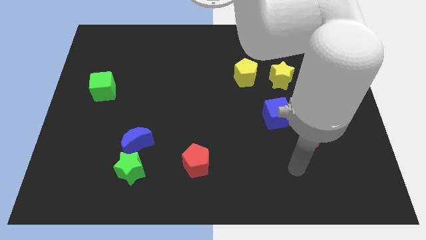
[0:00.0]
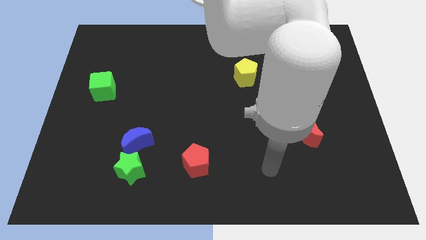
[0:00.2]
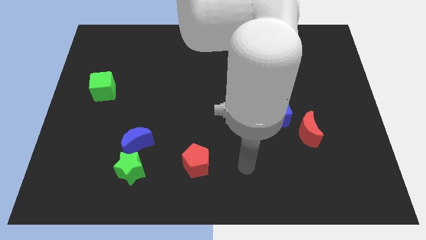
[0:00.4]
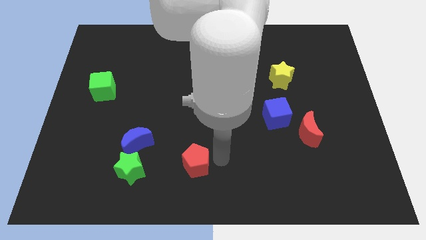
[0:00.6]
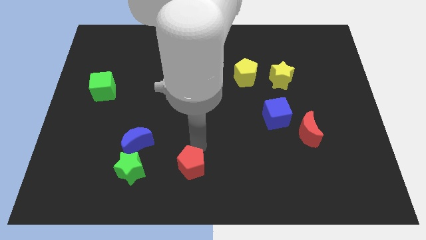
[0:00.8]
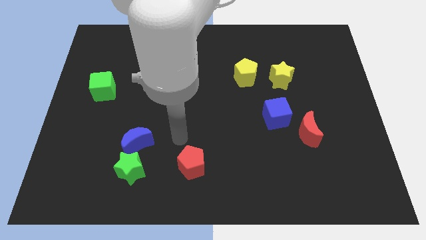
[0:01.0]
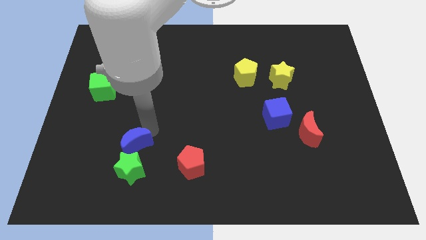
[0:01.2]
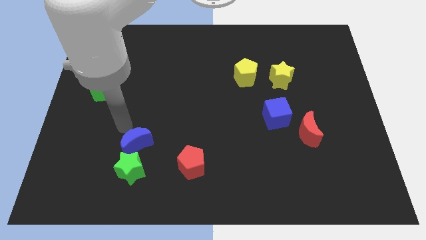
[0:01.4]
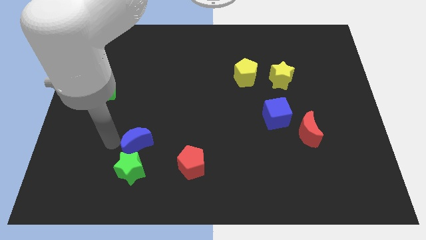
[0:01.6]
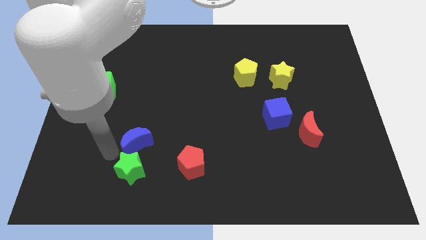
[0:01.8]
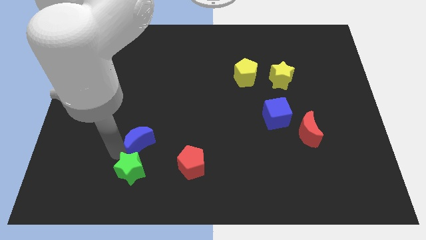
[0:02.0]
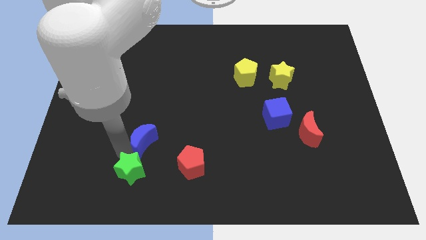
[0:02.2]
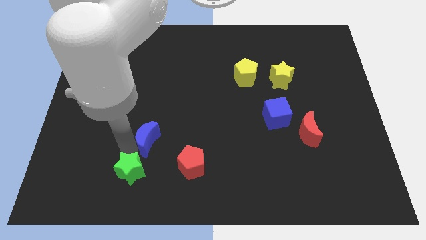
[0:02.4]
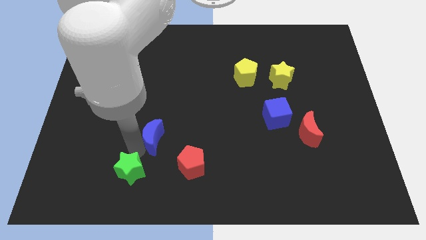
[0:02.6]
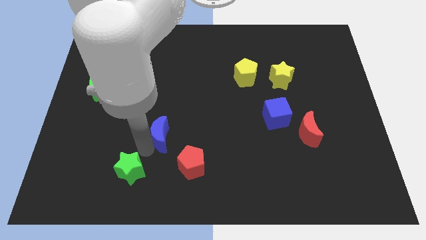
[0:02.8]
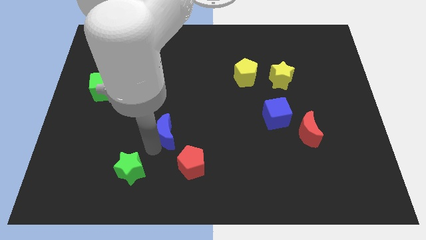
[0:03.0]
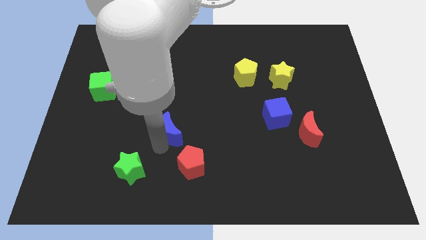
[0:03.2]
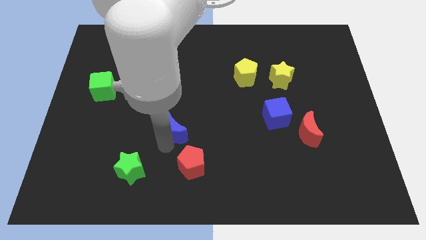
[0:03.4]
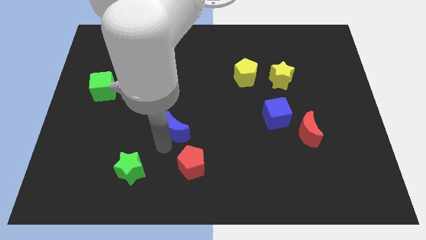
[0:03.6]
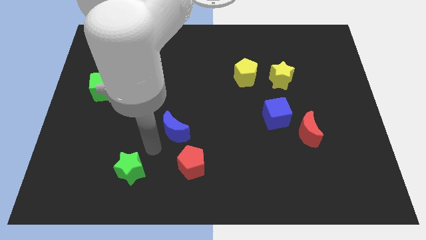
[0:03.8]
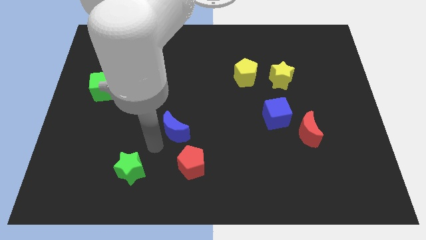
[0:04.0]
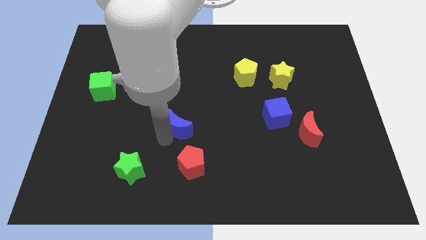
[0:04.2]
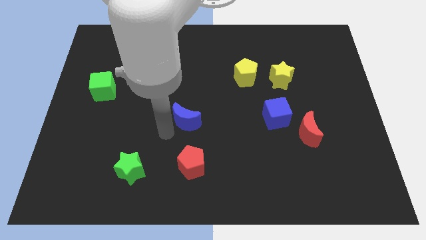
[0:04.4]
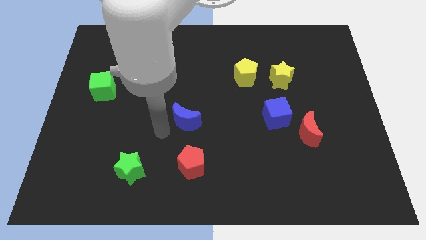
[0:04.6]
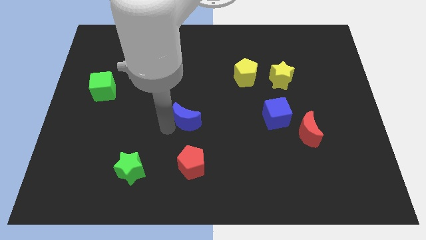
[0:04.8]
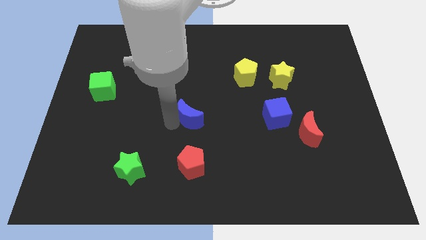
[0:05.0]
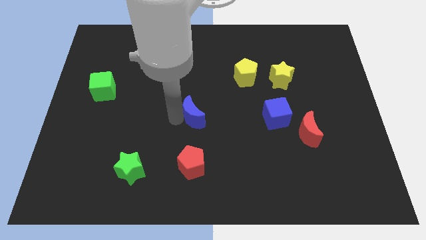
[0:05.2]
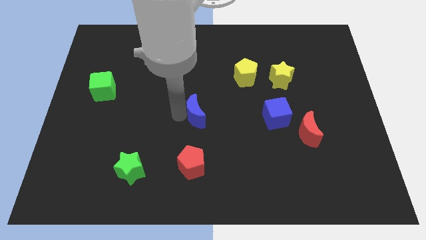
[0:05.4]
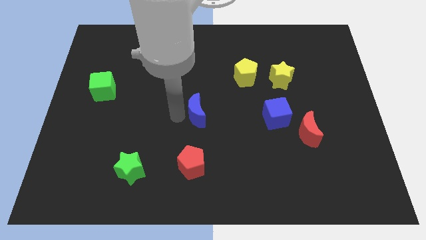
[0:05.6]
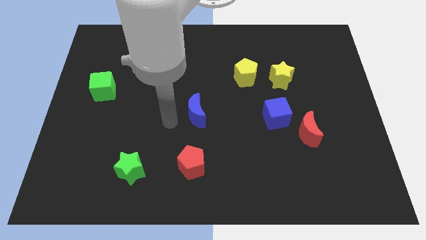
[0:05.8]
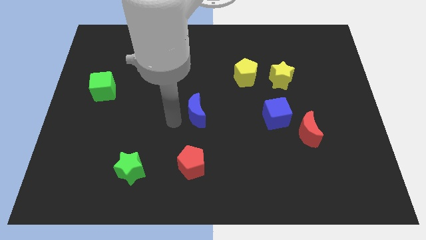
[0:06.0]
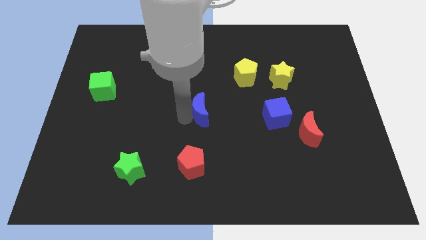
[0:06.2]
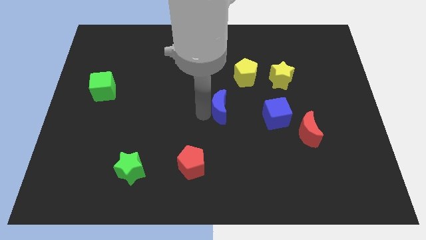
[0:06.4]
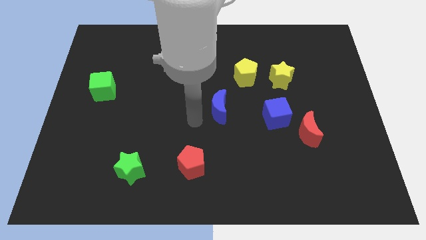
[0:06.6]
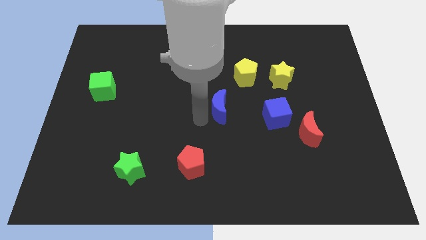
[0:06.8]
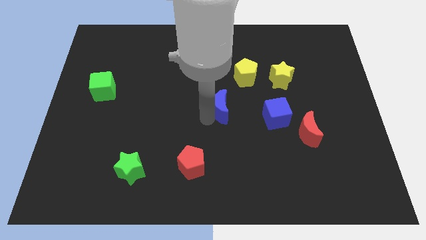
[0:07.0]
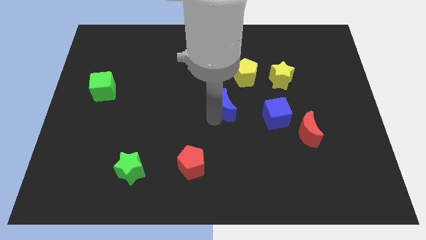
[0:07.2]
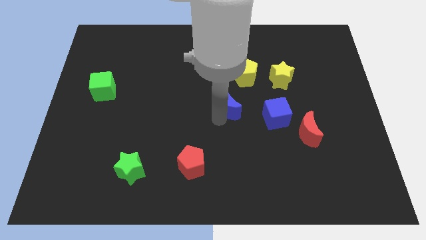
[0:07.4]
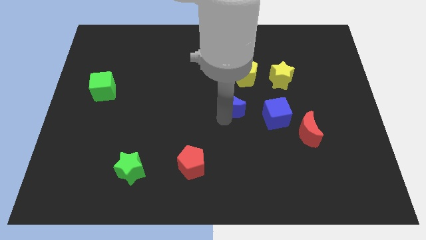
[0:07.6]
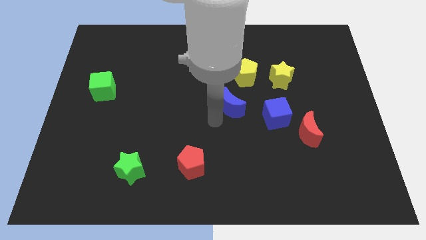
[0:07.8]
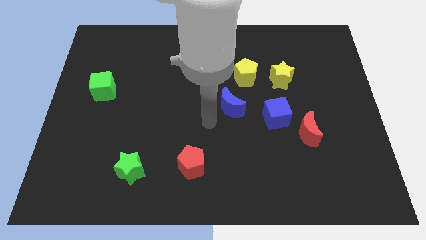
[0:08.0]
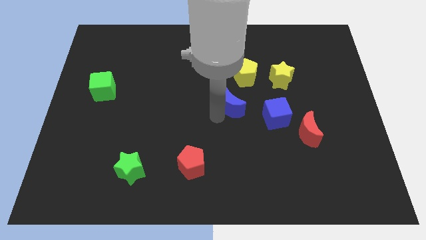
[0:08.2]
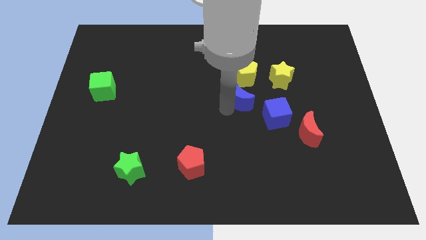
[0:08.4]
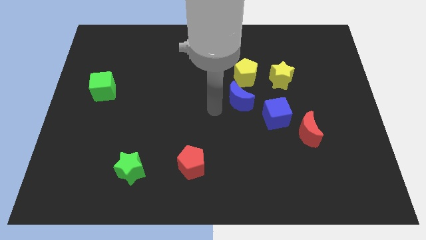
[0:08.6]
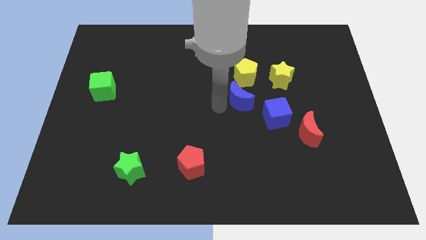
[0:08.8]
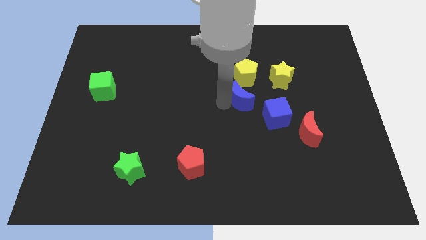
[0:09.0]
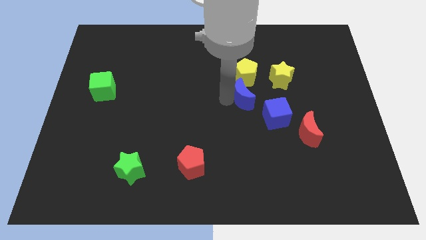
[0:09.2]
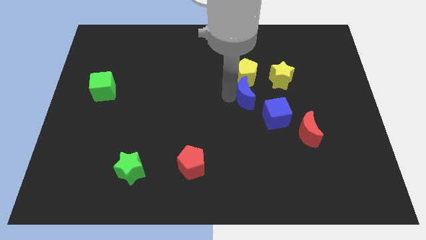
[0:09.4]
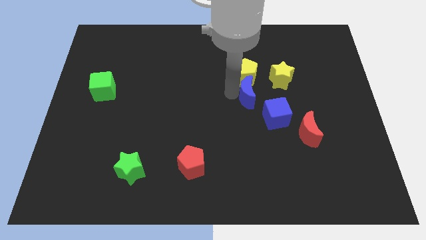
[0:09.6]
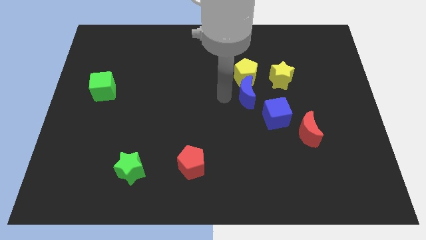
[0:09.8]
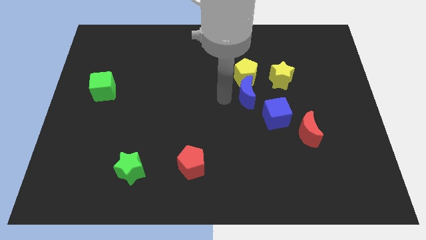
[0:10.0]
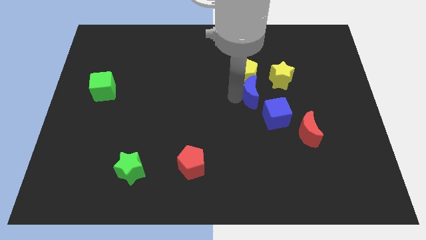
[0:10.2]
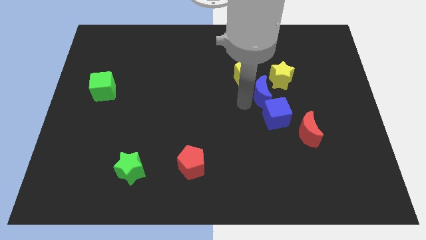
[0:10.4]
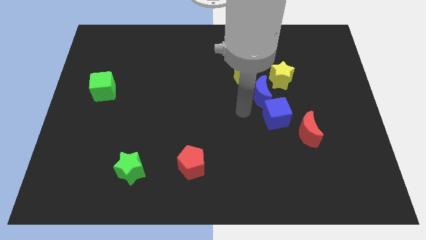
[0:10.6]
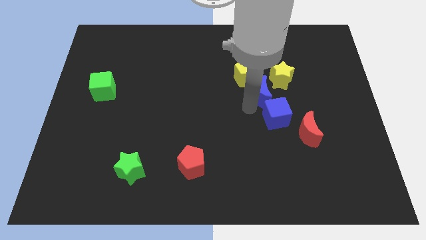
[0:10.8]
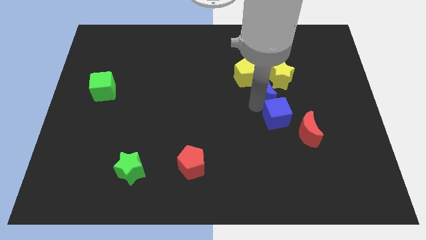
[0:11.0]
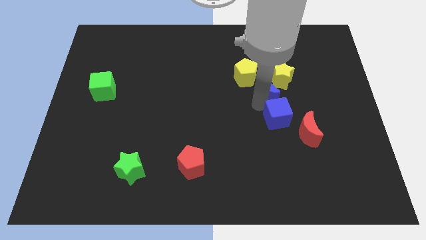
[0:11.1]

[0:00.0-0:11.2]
put the blue moon towards the yellow star

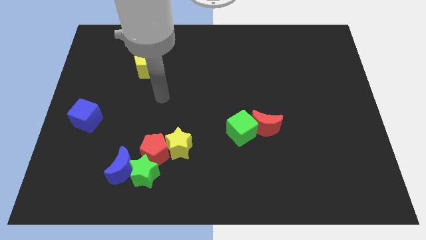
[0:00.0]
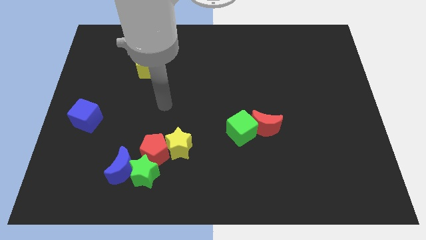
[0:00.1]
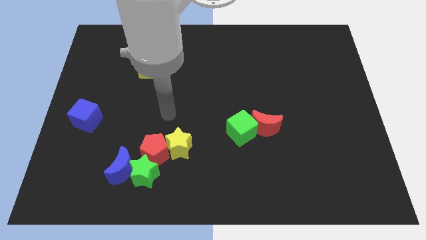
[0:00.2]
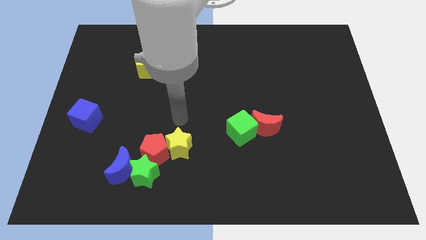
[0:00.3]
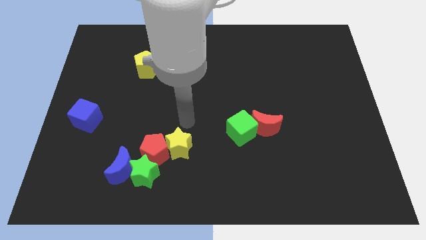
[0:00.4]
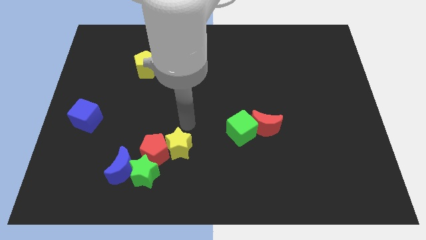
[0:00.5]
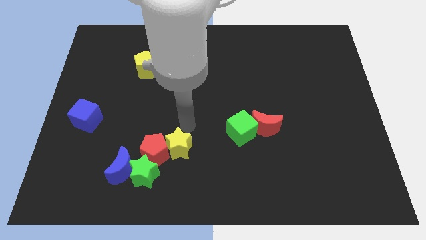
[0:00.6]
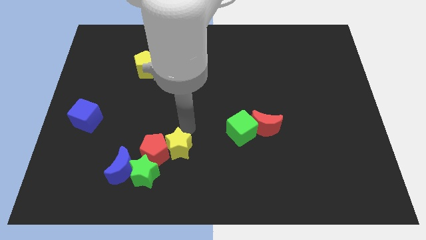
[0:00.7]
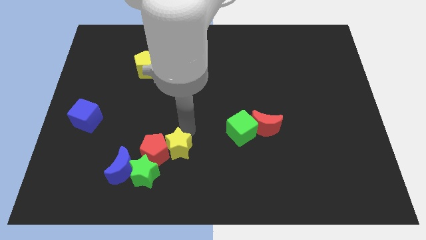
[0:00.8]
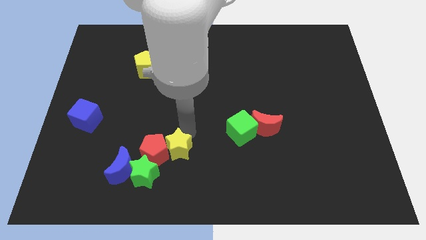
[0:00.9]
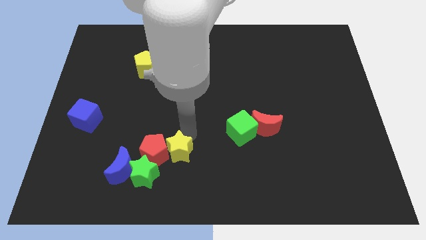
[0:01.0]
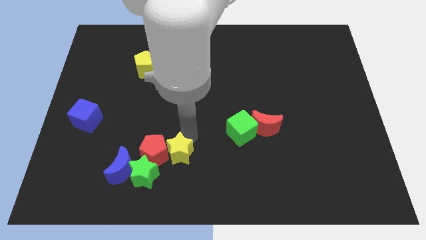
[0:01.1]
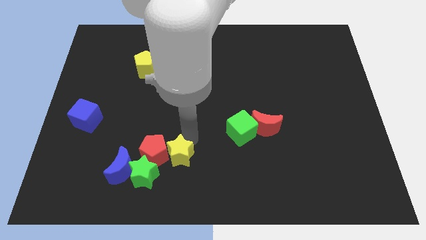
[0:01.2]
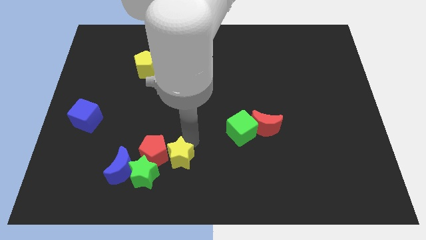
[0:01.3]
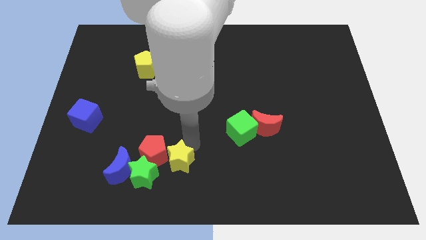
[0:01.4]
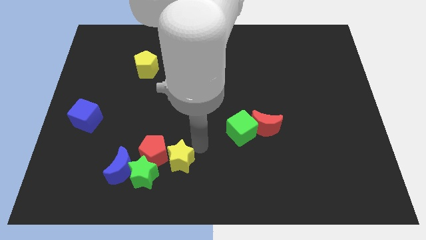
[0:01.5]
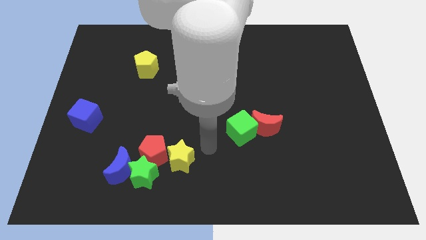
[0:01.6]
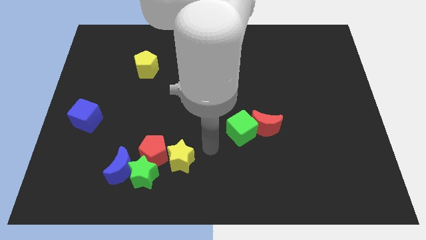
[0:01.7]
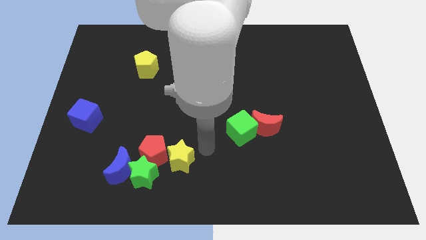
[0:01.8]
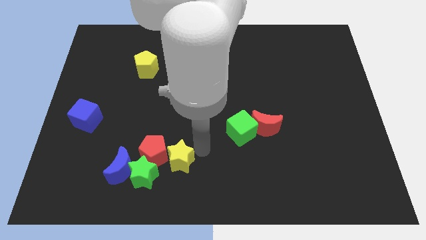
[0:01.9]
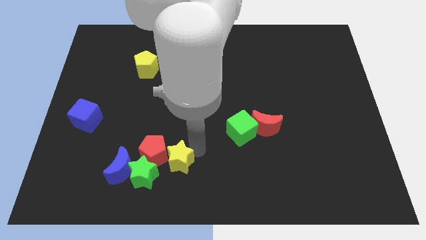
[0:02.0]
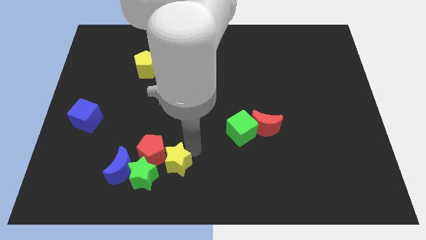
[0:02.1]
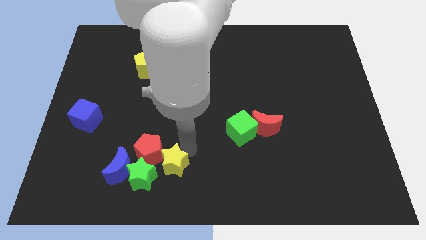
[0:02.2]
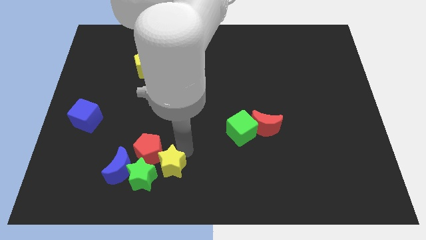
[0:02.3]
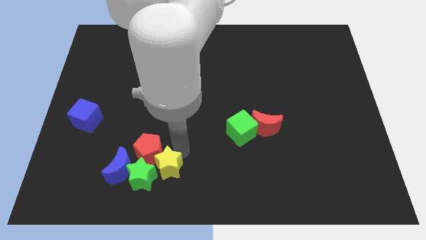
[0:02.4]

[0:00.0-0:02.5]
move the yellow star close to the green star
